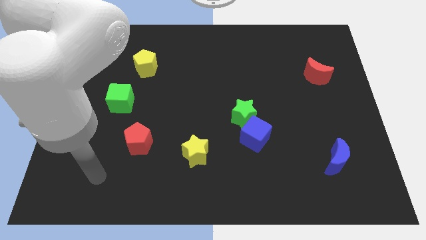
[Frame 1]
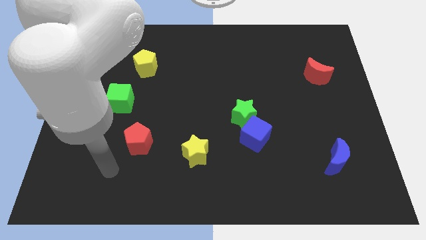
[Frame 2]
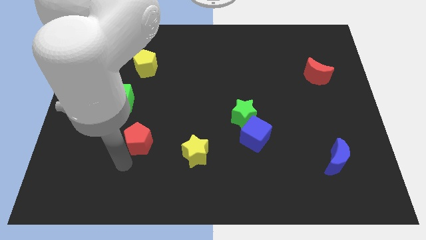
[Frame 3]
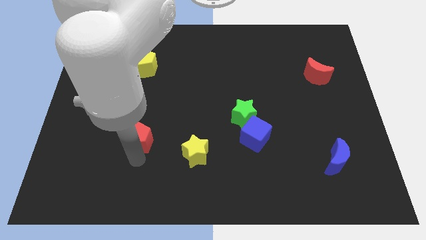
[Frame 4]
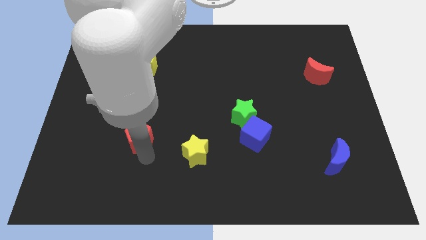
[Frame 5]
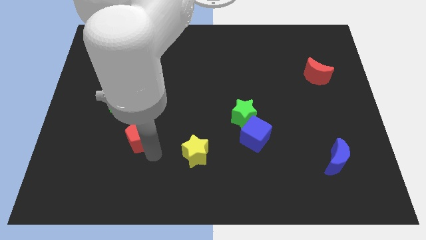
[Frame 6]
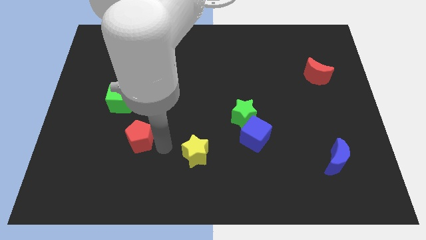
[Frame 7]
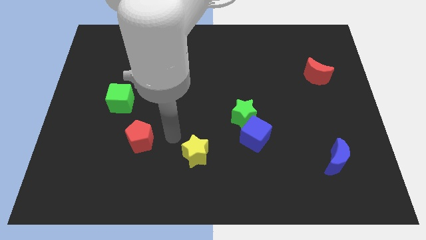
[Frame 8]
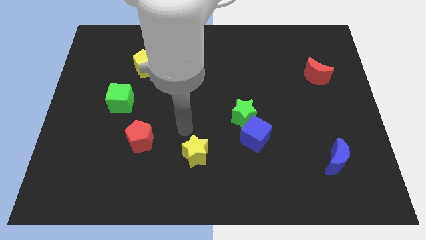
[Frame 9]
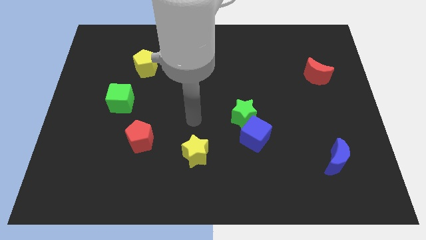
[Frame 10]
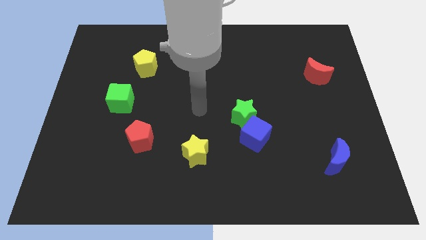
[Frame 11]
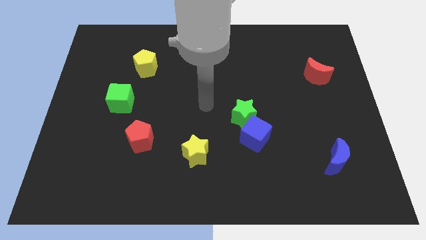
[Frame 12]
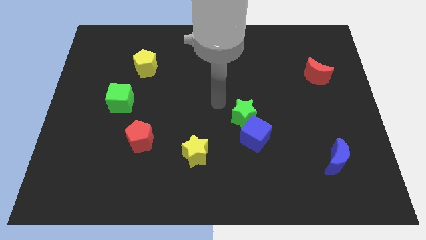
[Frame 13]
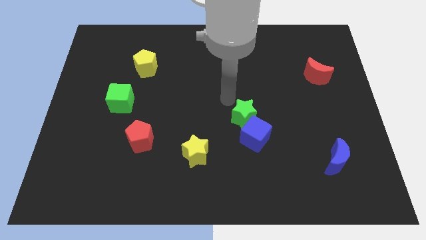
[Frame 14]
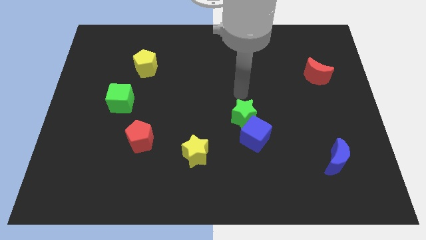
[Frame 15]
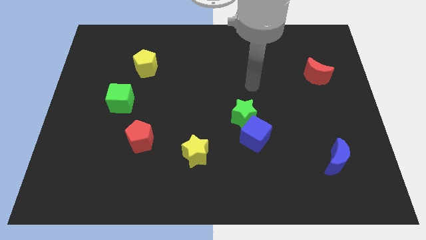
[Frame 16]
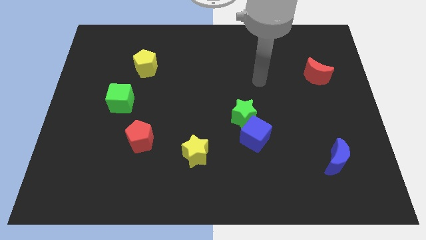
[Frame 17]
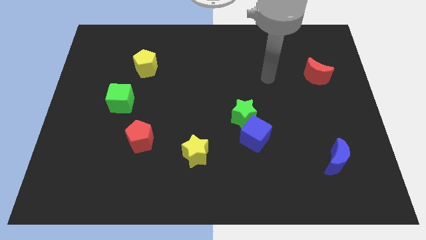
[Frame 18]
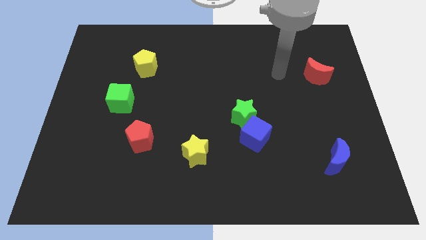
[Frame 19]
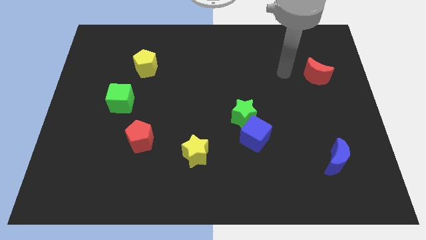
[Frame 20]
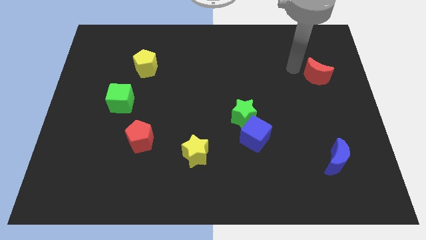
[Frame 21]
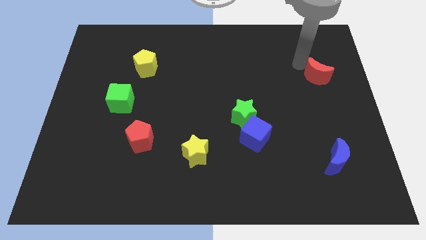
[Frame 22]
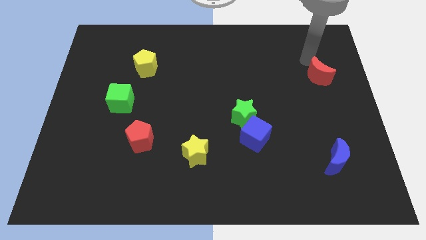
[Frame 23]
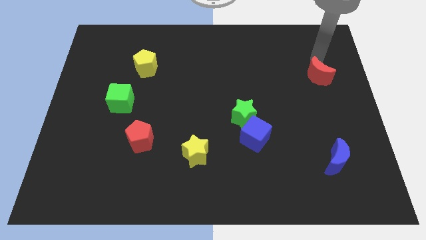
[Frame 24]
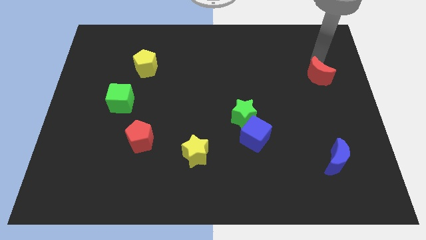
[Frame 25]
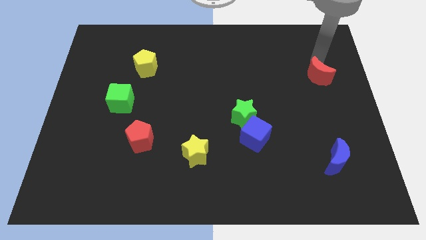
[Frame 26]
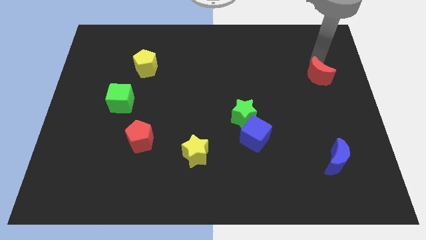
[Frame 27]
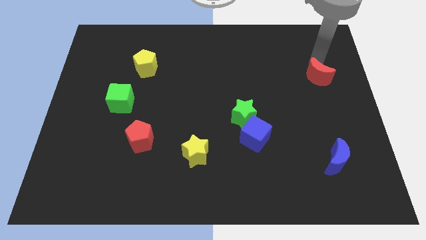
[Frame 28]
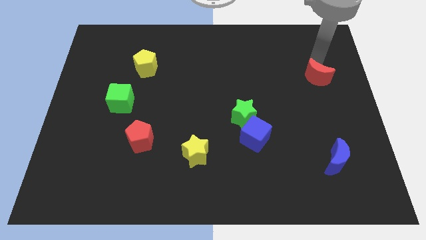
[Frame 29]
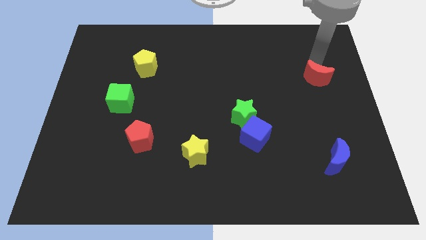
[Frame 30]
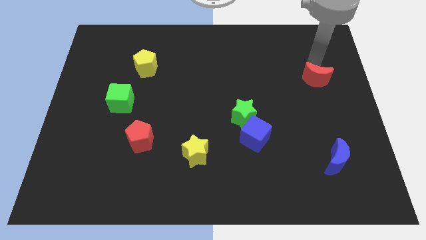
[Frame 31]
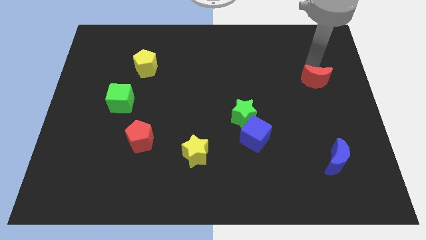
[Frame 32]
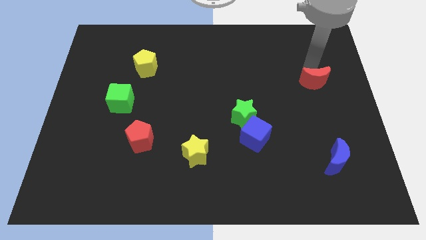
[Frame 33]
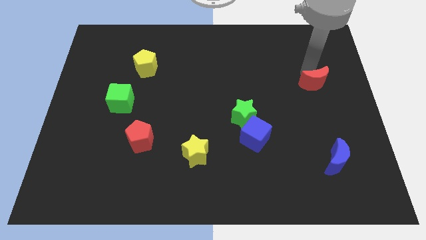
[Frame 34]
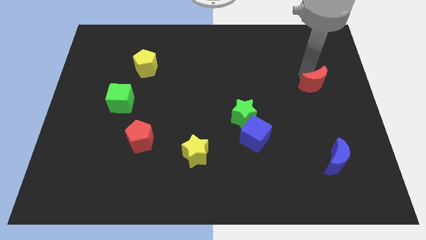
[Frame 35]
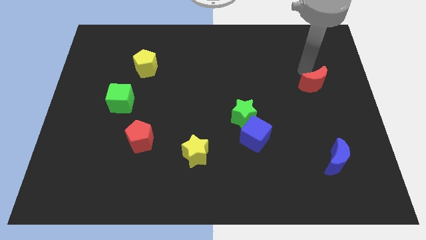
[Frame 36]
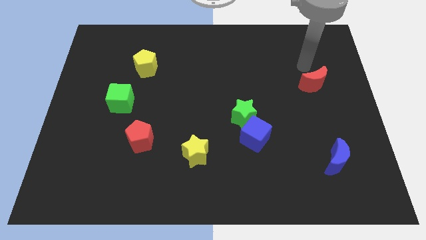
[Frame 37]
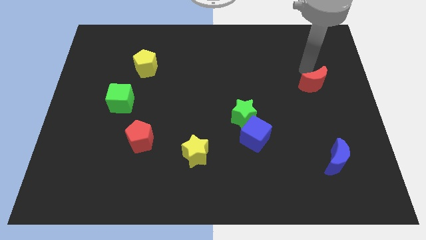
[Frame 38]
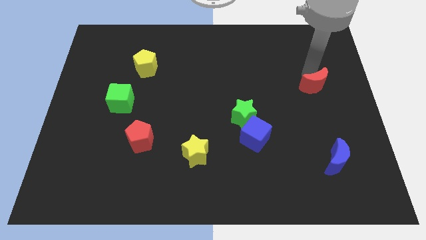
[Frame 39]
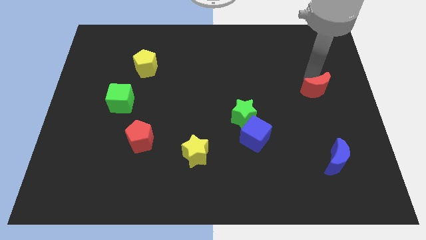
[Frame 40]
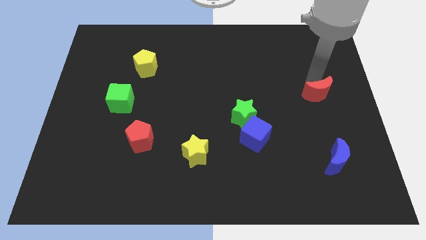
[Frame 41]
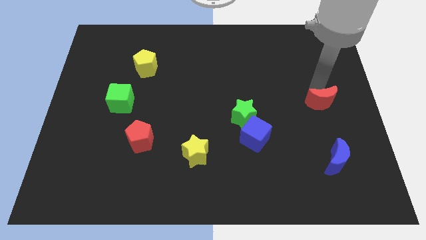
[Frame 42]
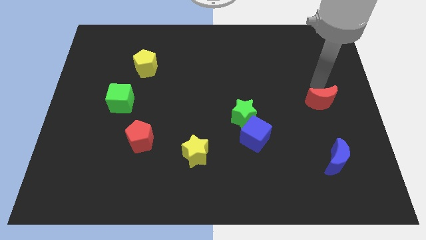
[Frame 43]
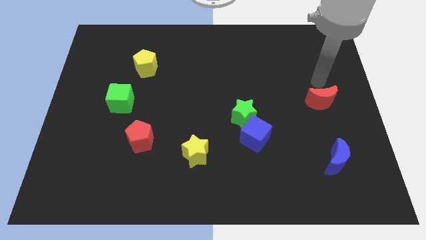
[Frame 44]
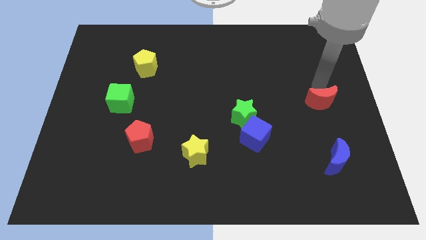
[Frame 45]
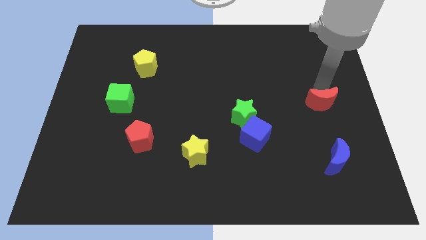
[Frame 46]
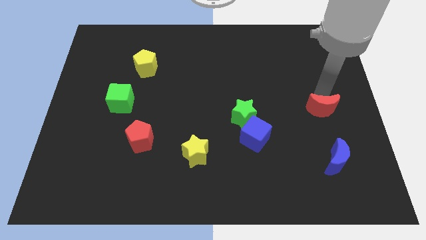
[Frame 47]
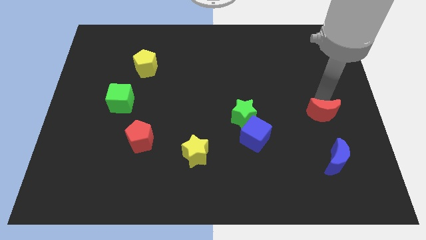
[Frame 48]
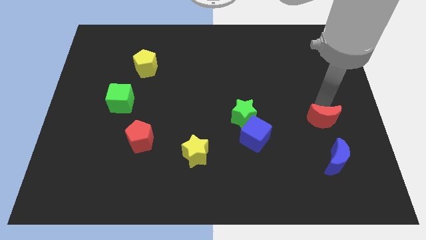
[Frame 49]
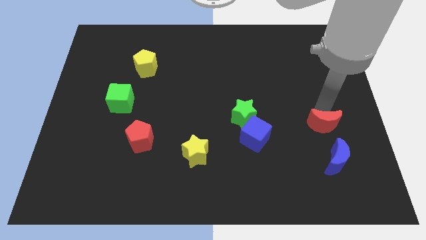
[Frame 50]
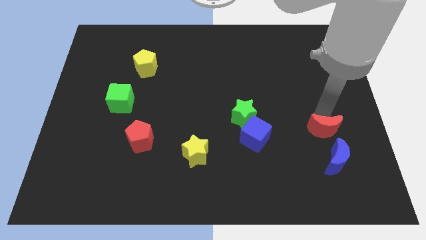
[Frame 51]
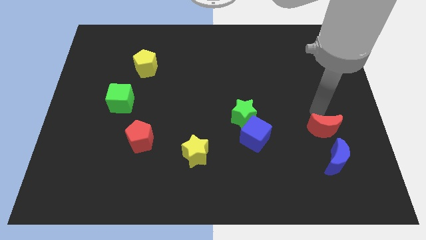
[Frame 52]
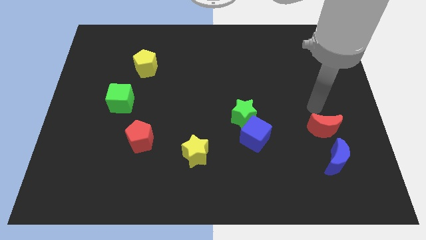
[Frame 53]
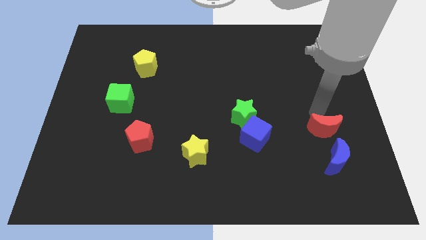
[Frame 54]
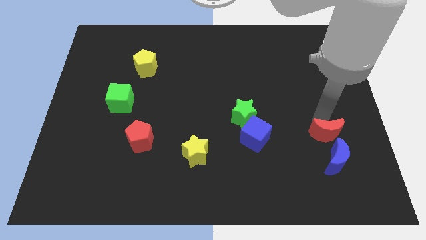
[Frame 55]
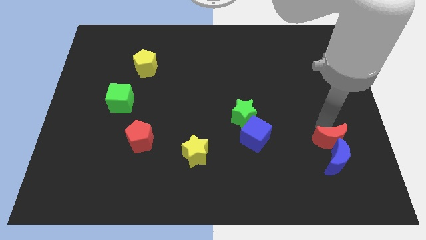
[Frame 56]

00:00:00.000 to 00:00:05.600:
move the red moon to the blue moon

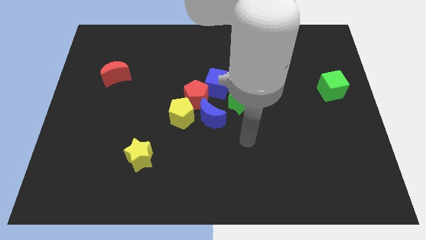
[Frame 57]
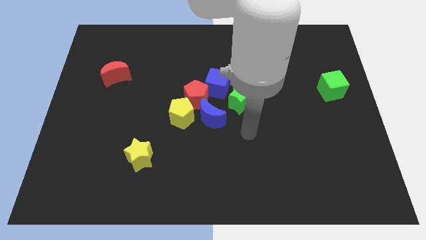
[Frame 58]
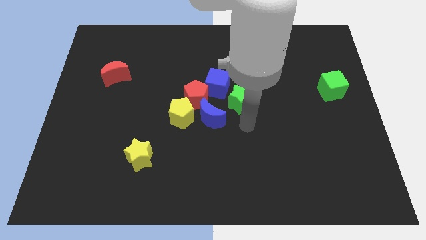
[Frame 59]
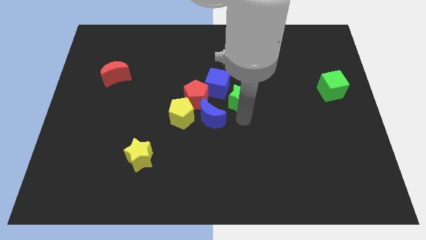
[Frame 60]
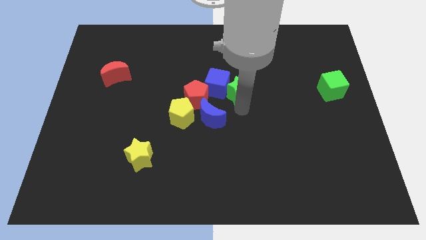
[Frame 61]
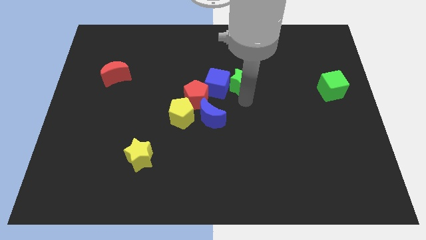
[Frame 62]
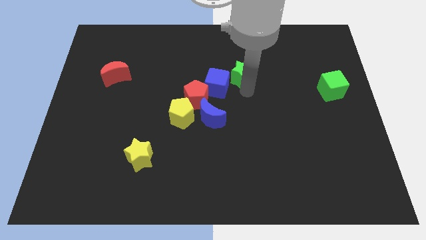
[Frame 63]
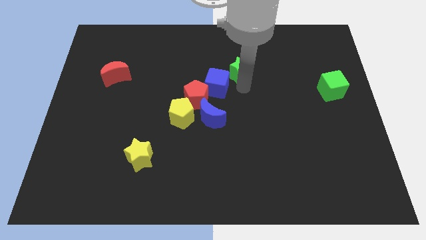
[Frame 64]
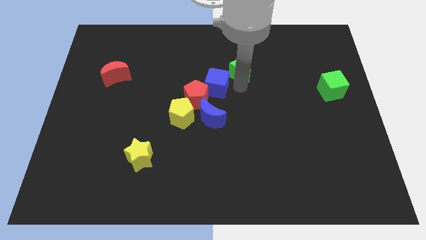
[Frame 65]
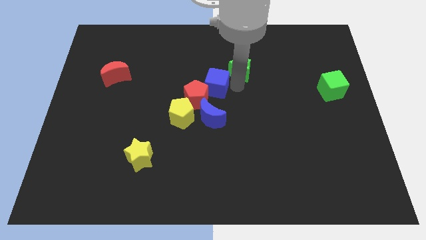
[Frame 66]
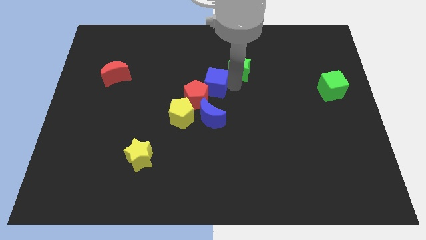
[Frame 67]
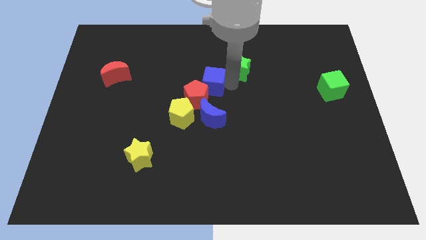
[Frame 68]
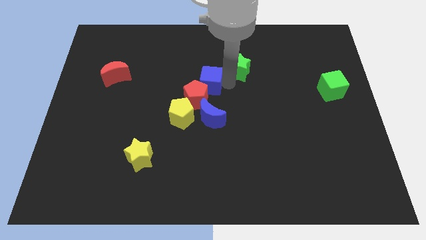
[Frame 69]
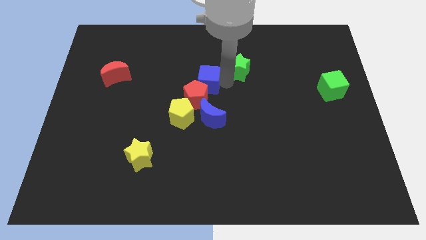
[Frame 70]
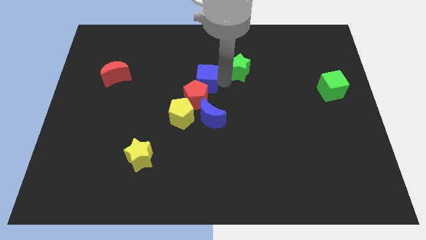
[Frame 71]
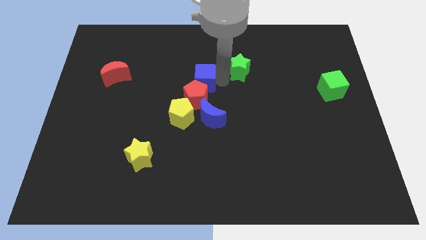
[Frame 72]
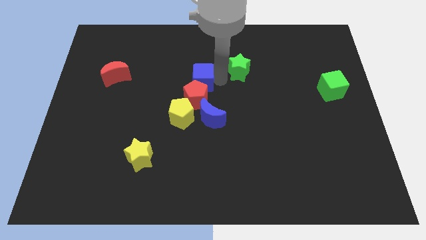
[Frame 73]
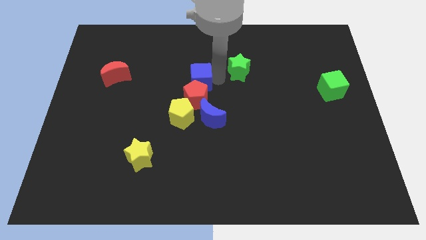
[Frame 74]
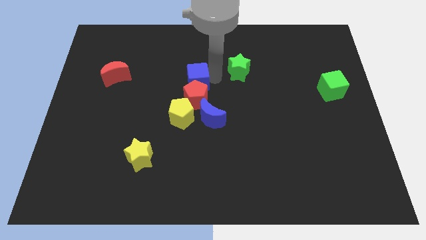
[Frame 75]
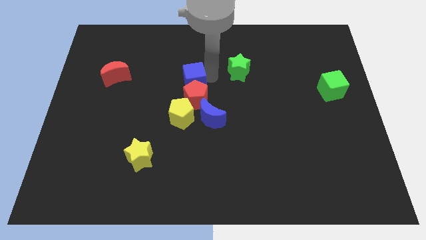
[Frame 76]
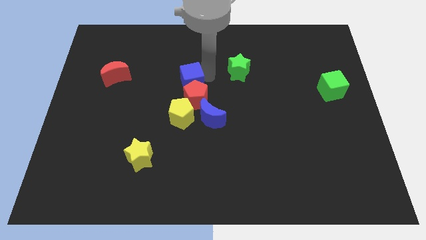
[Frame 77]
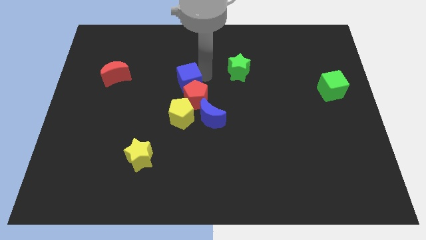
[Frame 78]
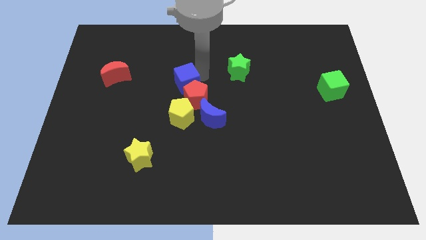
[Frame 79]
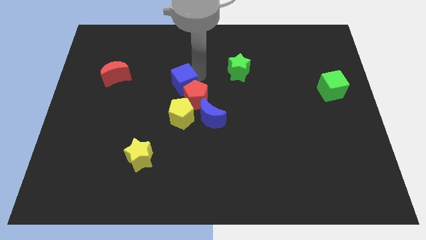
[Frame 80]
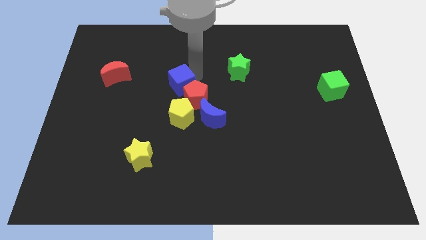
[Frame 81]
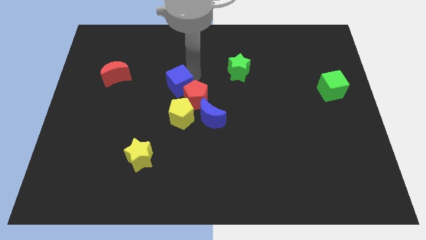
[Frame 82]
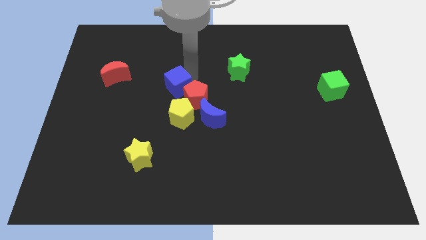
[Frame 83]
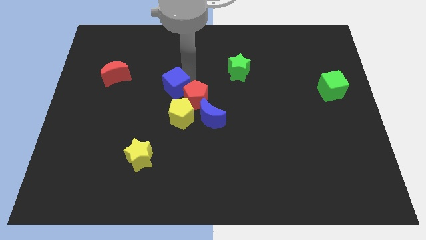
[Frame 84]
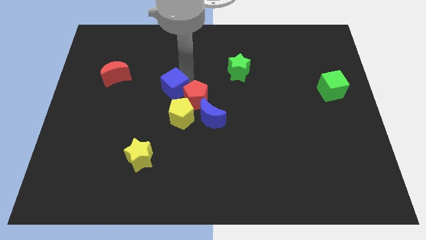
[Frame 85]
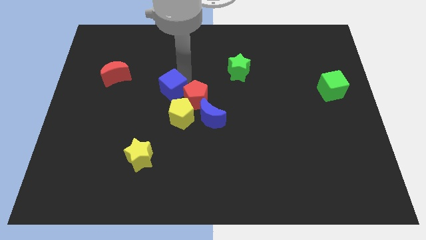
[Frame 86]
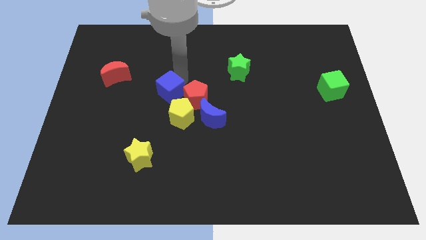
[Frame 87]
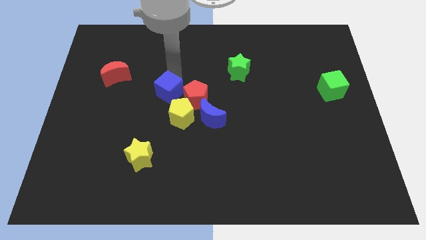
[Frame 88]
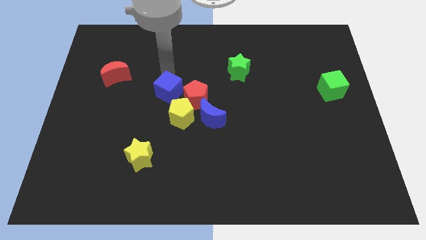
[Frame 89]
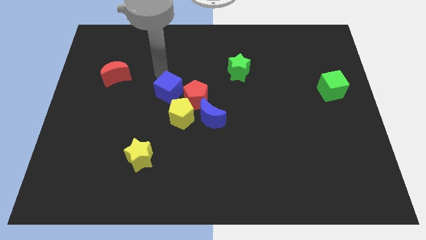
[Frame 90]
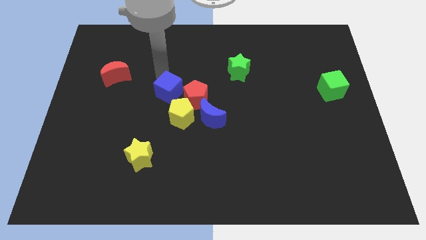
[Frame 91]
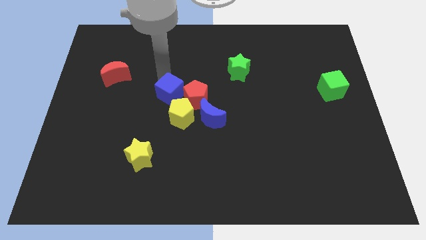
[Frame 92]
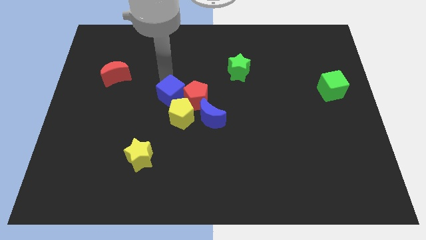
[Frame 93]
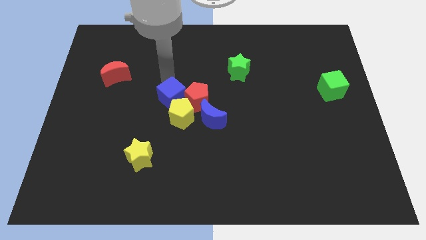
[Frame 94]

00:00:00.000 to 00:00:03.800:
push the blue cube to the yellow pentagon
